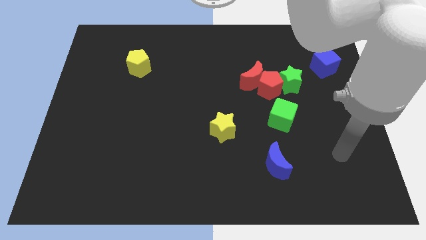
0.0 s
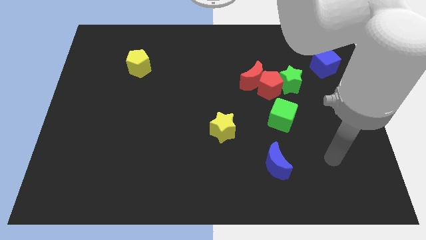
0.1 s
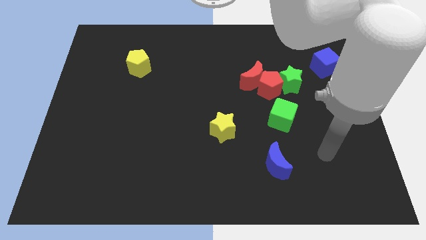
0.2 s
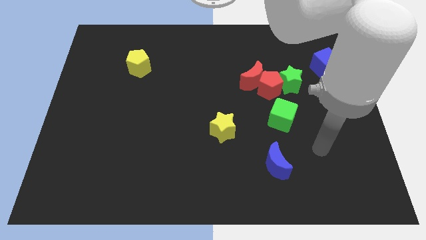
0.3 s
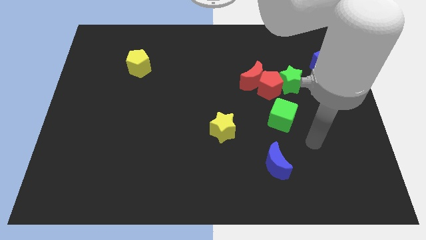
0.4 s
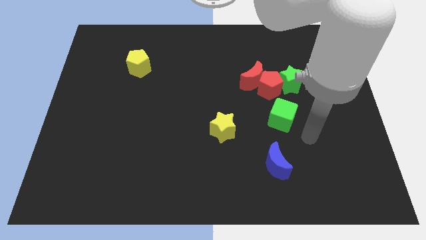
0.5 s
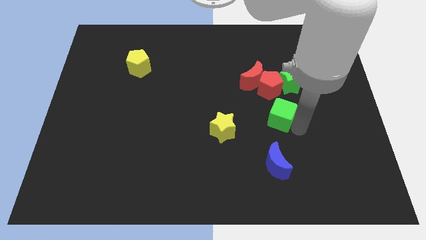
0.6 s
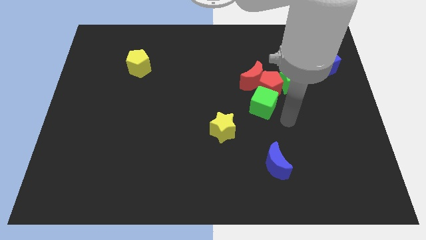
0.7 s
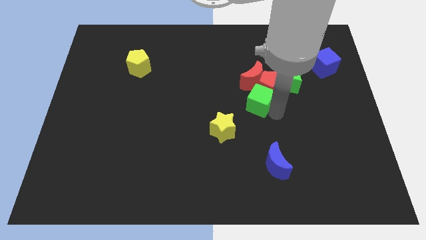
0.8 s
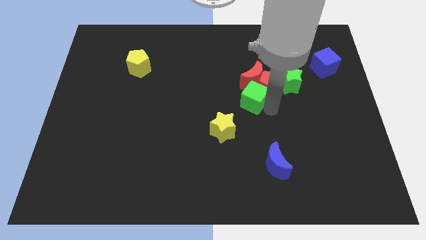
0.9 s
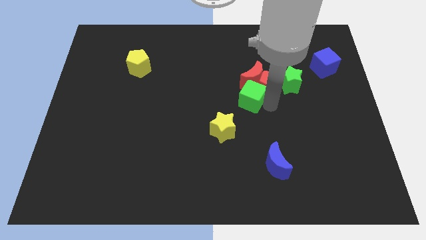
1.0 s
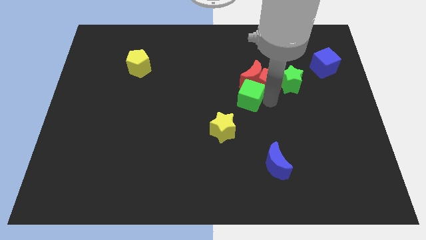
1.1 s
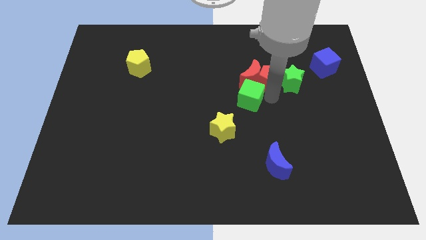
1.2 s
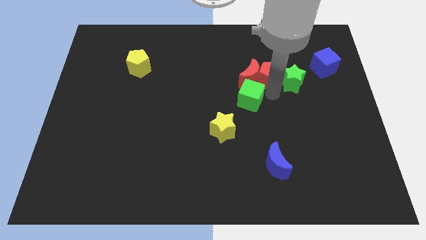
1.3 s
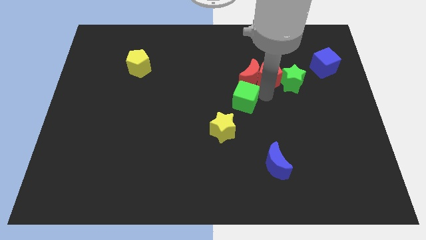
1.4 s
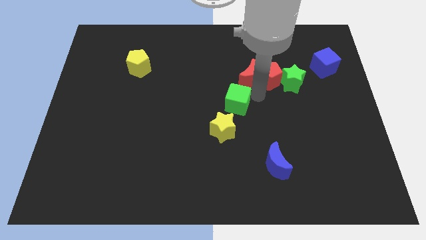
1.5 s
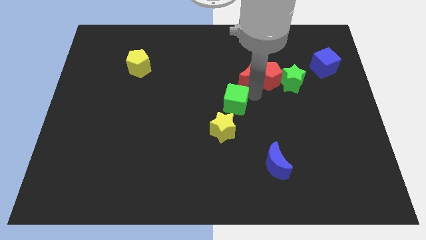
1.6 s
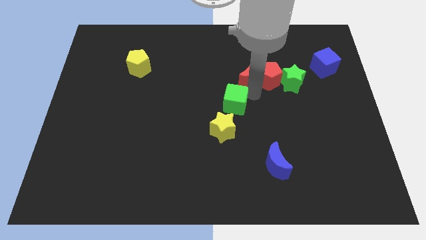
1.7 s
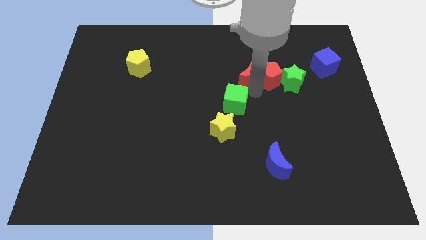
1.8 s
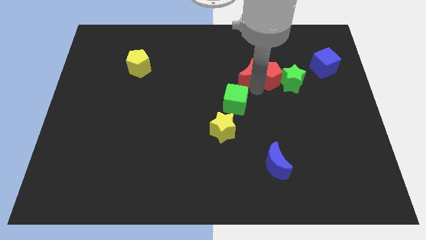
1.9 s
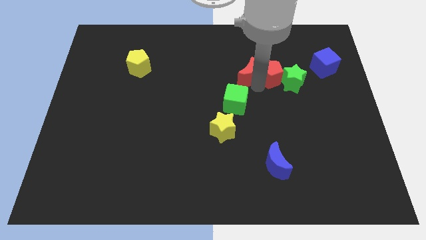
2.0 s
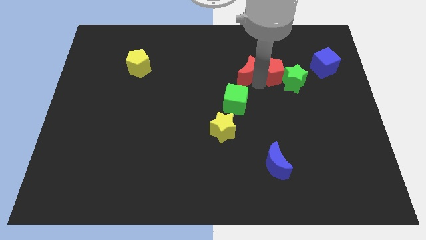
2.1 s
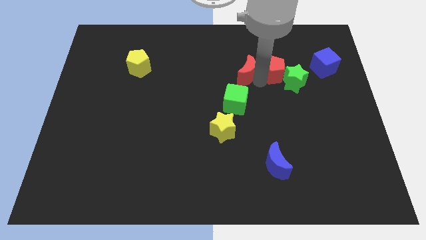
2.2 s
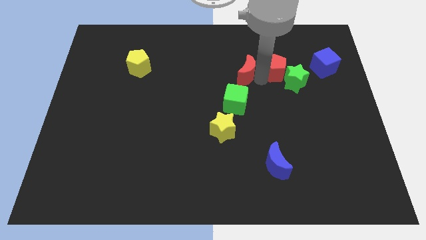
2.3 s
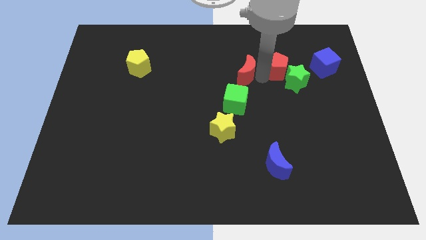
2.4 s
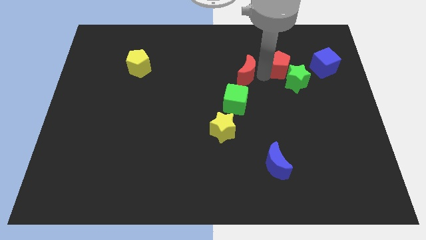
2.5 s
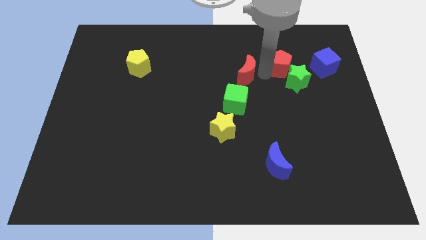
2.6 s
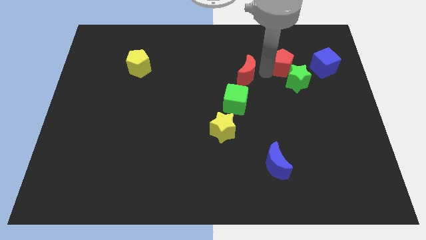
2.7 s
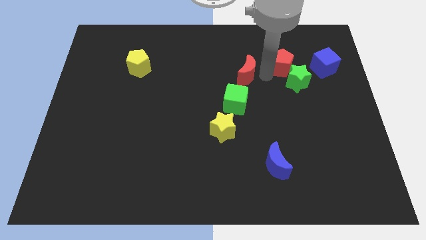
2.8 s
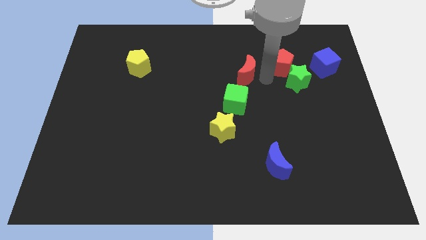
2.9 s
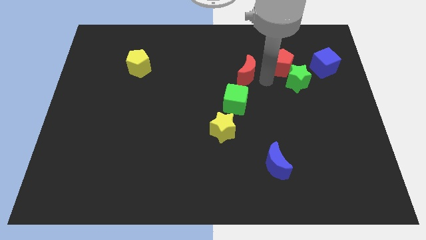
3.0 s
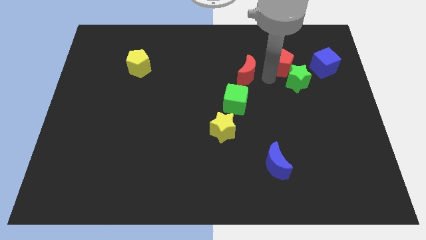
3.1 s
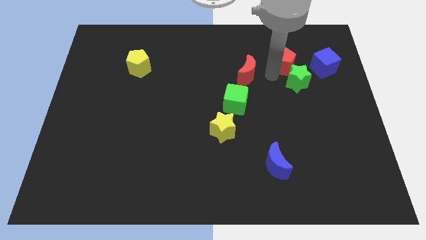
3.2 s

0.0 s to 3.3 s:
separate the red pentagon from the group

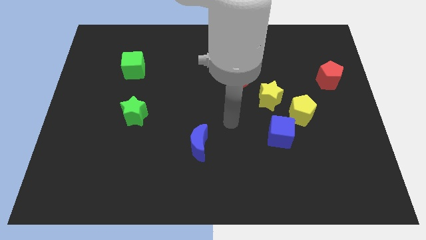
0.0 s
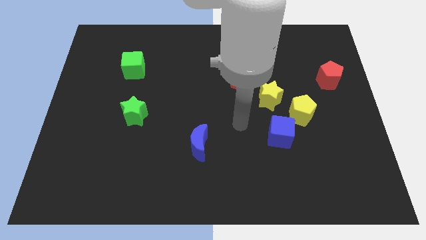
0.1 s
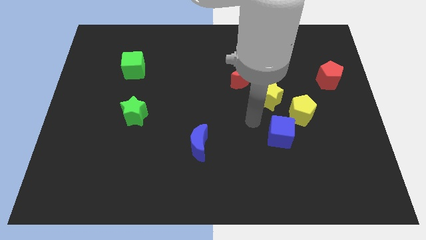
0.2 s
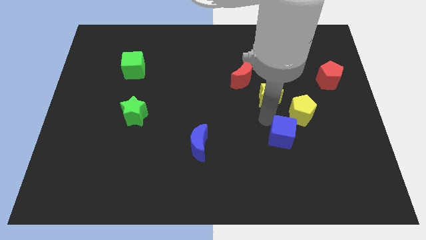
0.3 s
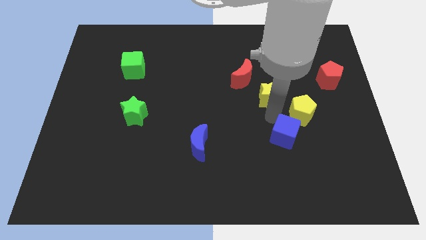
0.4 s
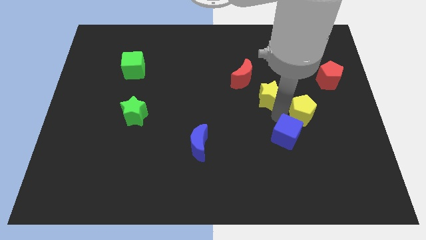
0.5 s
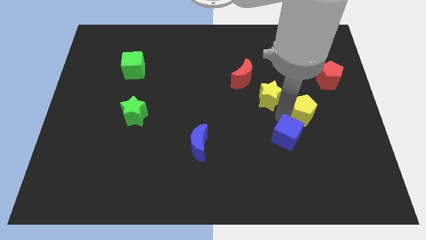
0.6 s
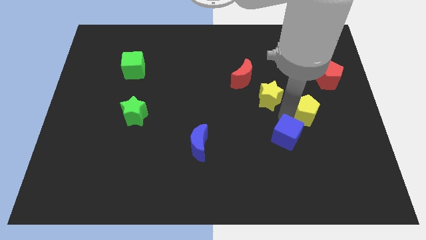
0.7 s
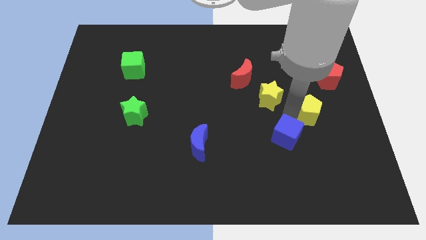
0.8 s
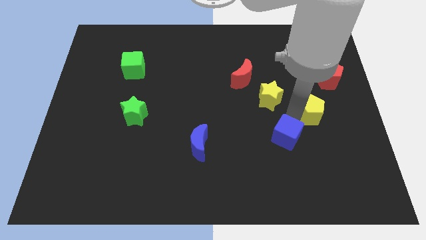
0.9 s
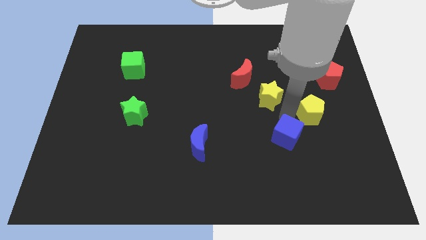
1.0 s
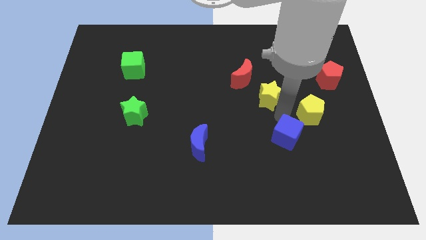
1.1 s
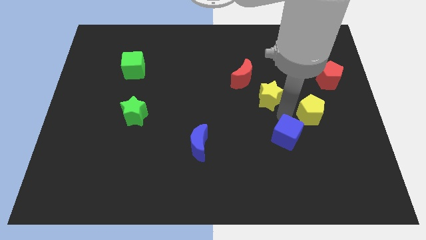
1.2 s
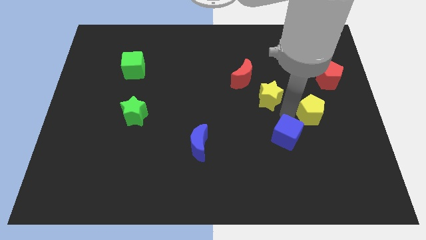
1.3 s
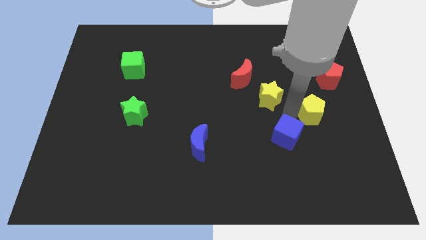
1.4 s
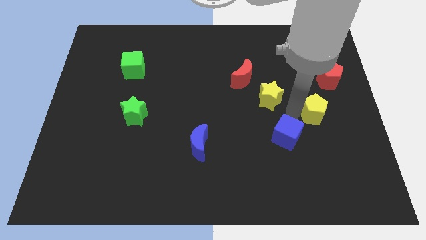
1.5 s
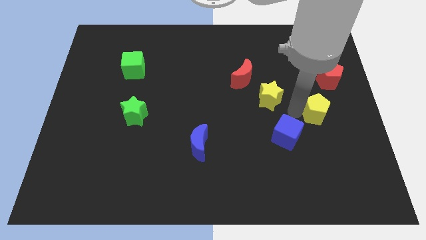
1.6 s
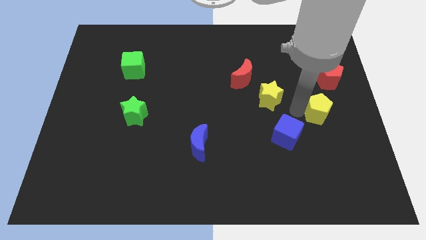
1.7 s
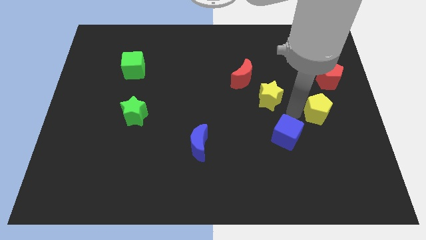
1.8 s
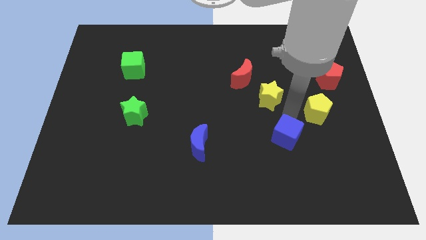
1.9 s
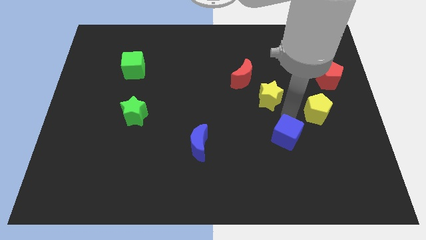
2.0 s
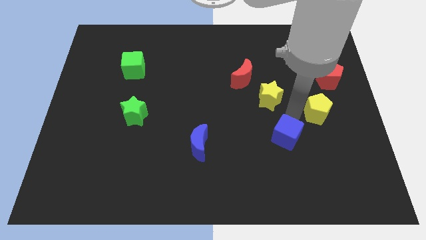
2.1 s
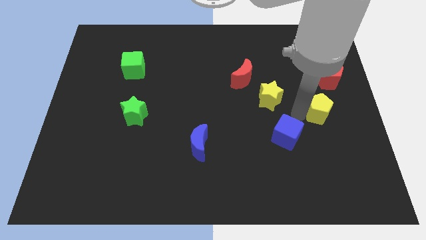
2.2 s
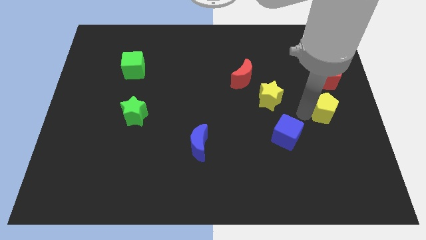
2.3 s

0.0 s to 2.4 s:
move the yellow pentagon away from the yellow star and blue cube

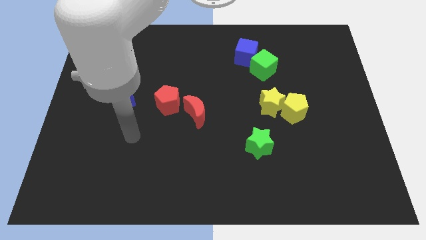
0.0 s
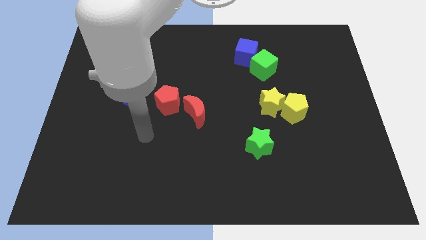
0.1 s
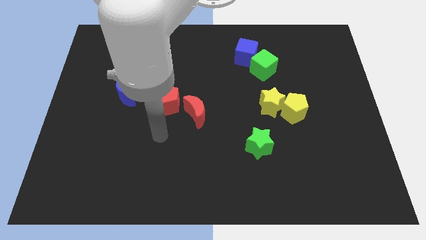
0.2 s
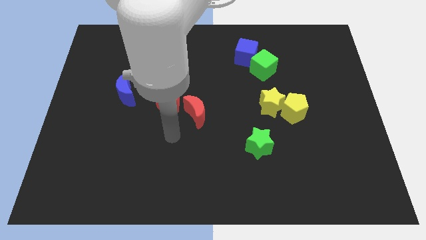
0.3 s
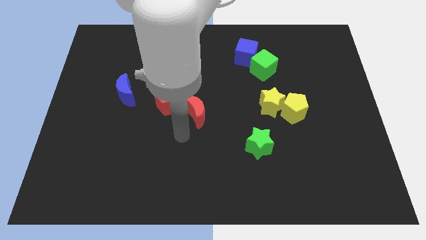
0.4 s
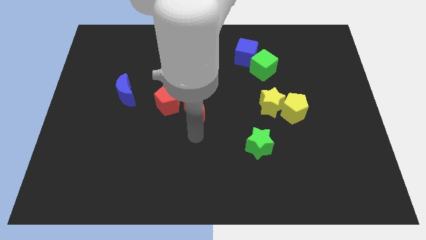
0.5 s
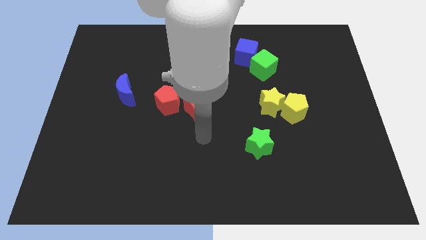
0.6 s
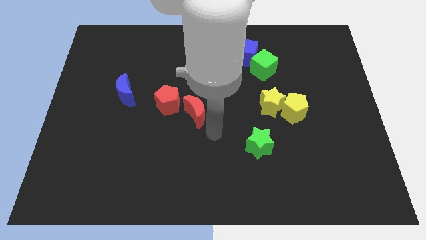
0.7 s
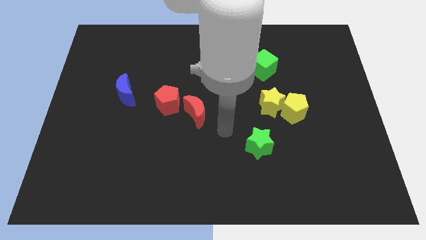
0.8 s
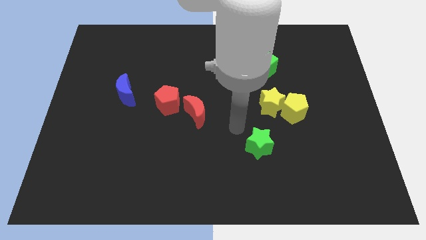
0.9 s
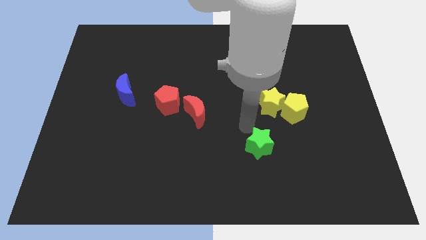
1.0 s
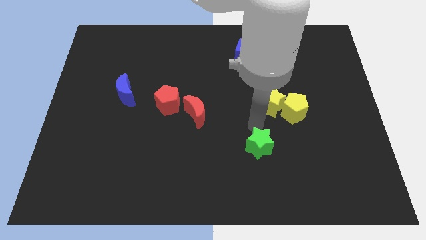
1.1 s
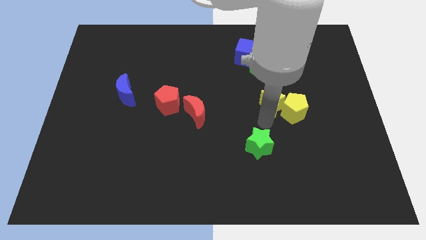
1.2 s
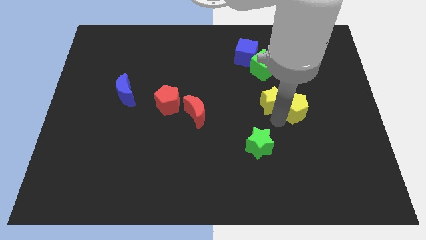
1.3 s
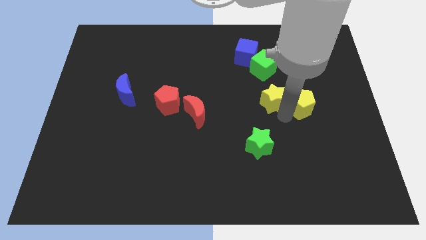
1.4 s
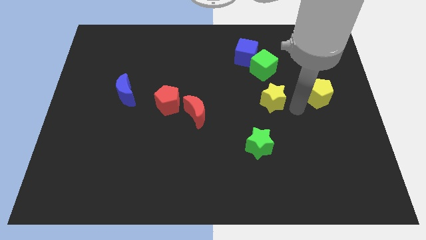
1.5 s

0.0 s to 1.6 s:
pull the yellow star apart from the yellow pentagon

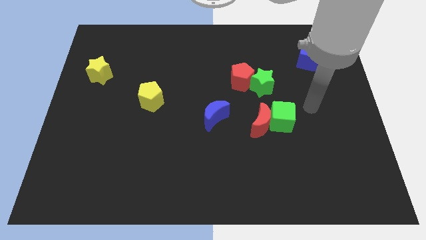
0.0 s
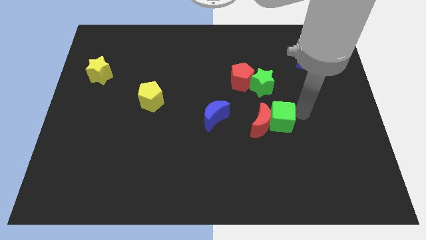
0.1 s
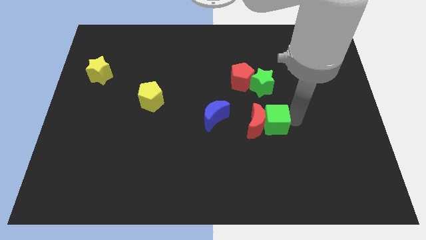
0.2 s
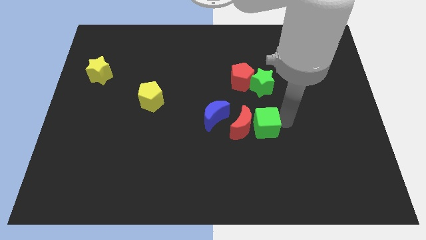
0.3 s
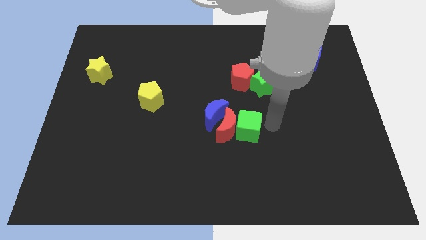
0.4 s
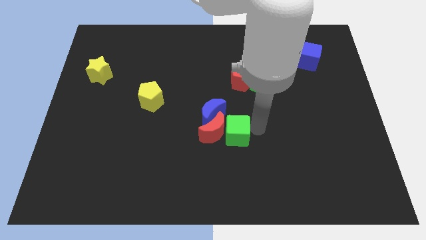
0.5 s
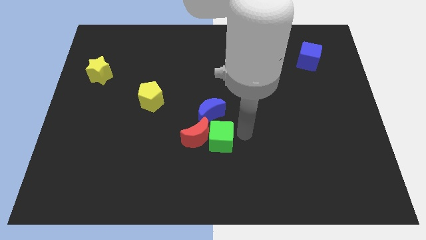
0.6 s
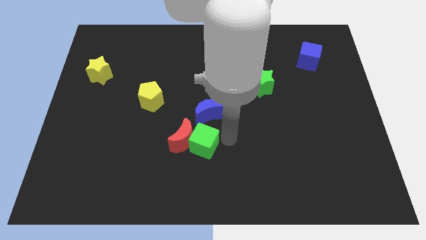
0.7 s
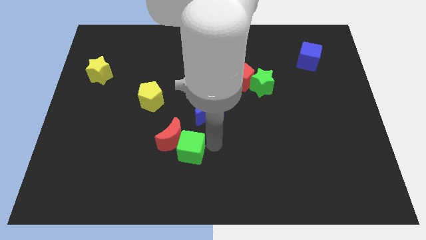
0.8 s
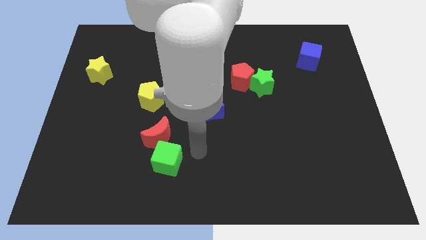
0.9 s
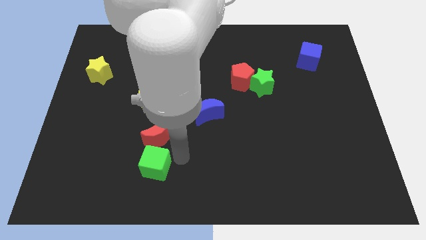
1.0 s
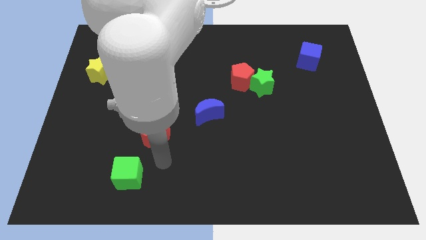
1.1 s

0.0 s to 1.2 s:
separate the red moon from the green cube

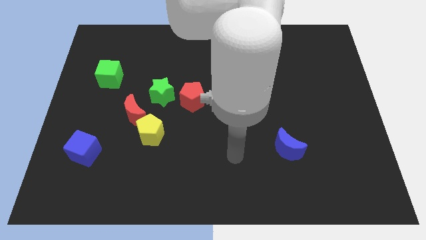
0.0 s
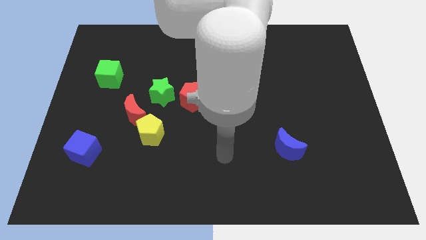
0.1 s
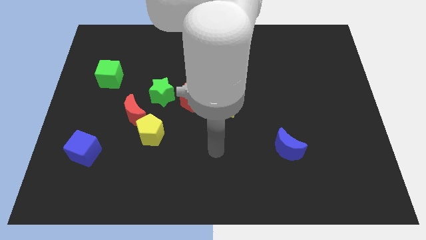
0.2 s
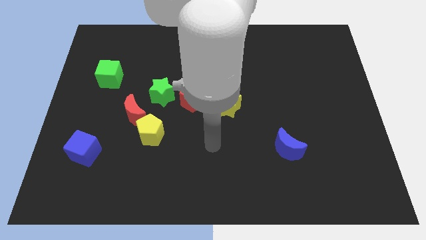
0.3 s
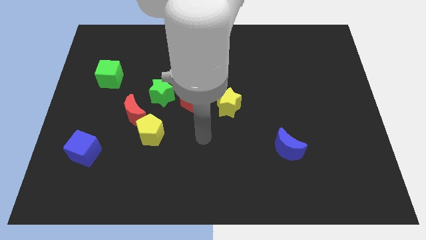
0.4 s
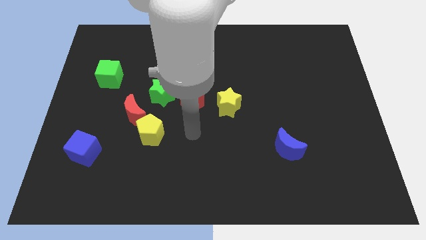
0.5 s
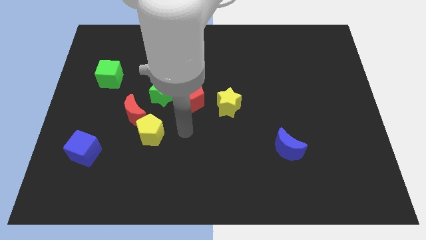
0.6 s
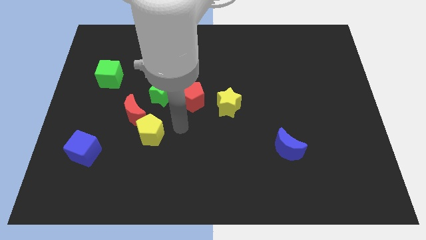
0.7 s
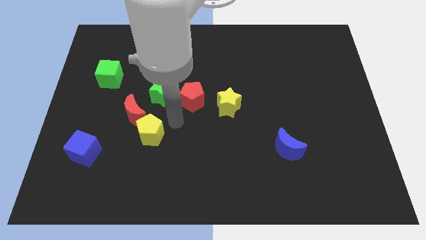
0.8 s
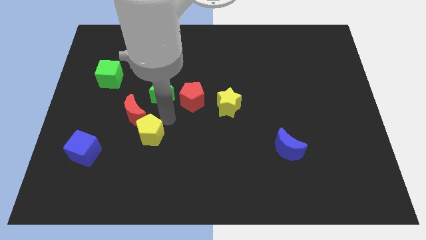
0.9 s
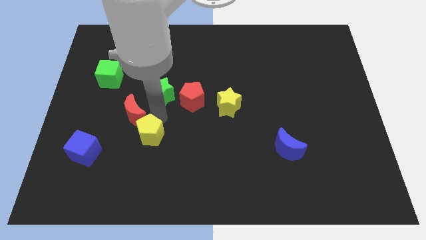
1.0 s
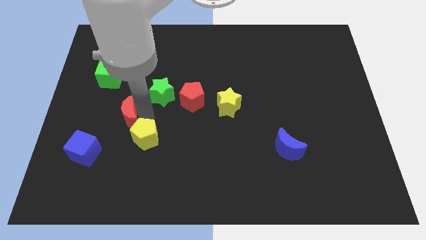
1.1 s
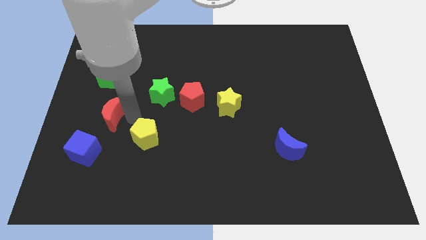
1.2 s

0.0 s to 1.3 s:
move the yellow pentagon away from the red moon
